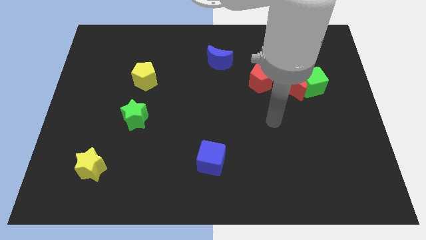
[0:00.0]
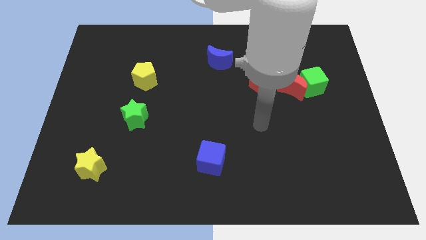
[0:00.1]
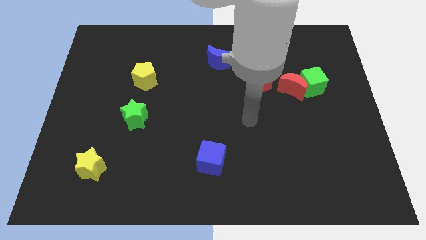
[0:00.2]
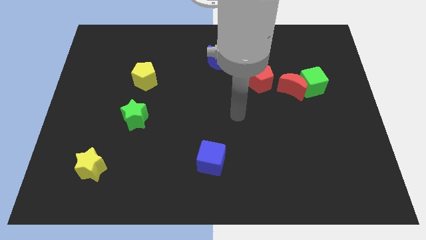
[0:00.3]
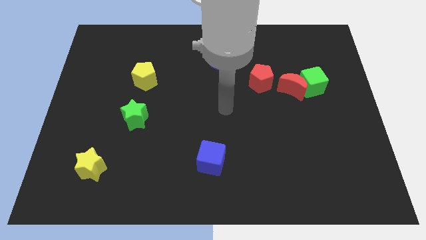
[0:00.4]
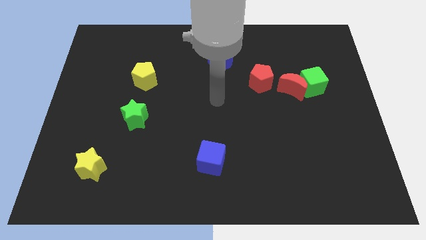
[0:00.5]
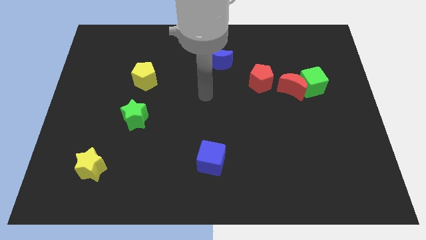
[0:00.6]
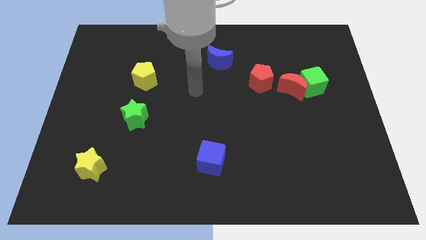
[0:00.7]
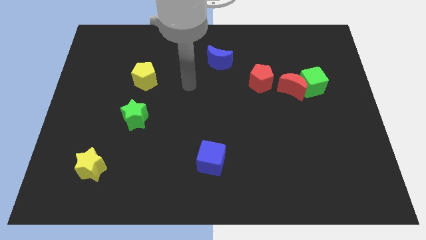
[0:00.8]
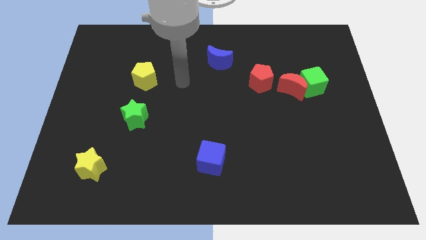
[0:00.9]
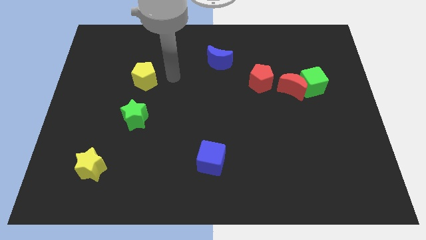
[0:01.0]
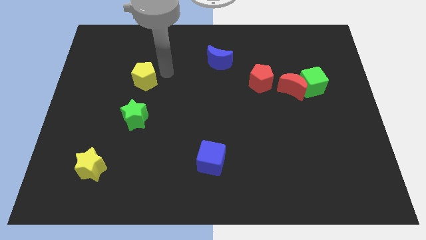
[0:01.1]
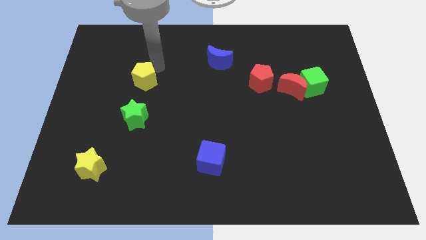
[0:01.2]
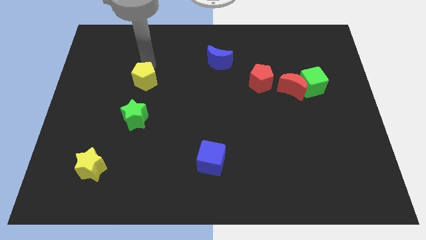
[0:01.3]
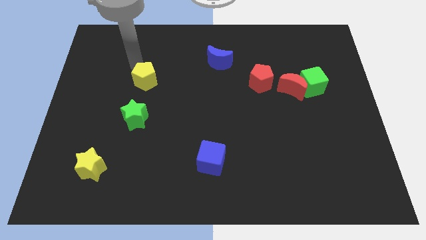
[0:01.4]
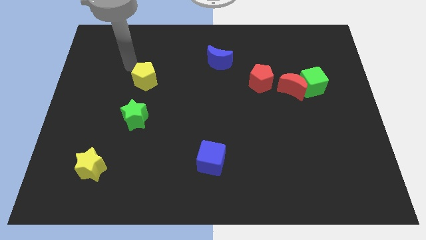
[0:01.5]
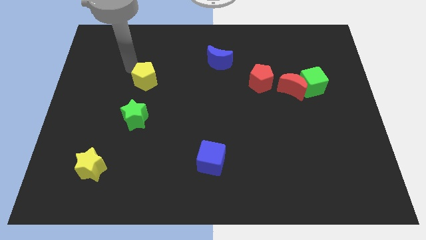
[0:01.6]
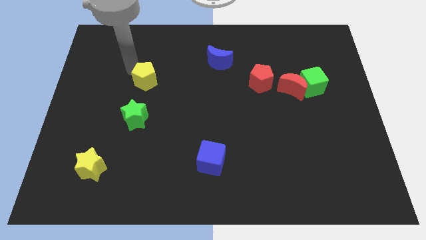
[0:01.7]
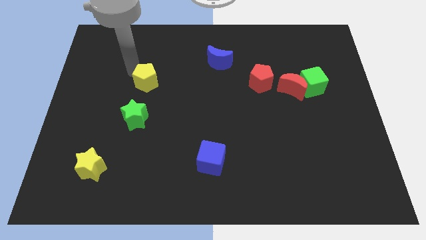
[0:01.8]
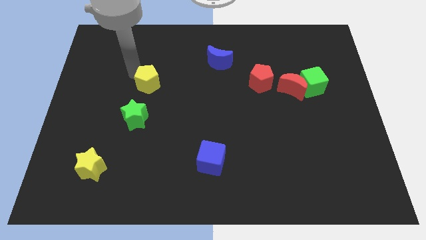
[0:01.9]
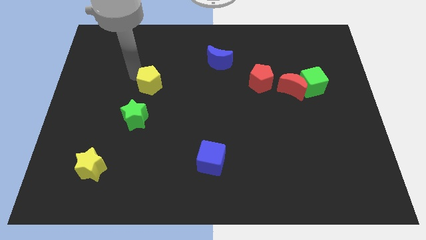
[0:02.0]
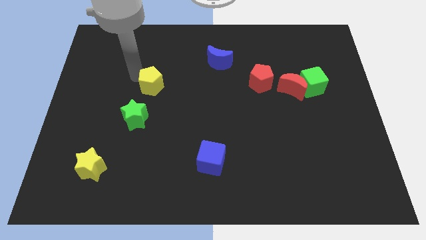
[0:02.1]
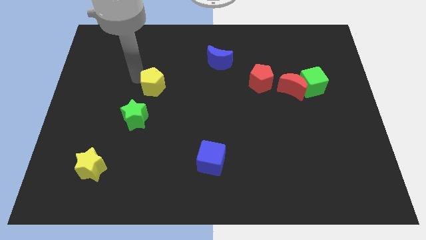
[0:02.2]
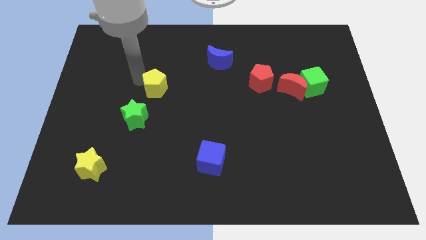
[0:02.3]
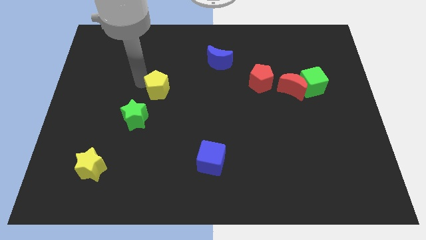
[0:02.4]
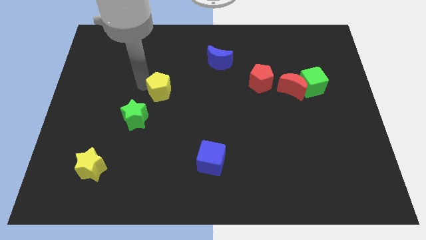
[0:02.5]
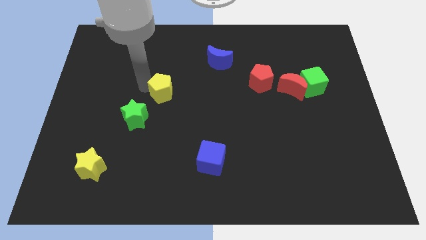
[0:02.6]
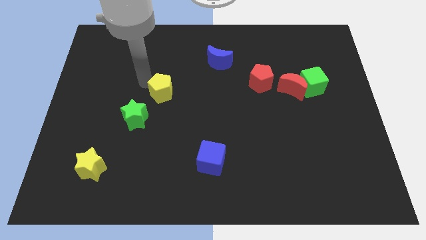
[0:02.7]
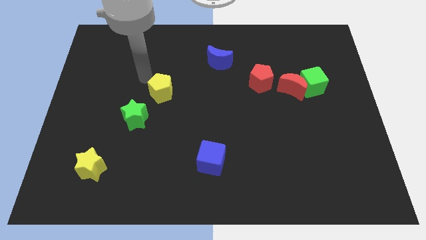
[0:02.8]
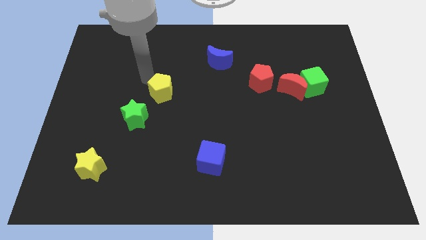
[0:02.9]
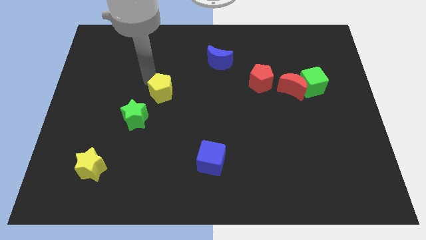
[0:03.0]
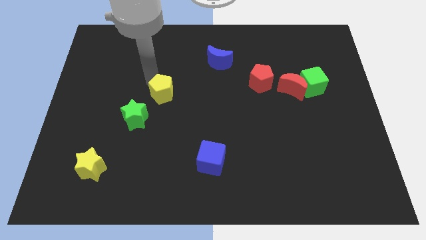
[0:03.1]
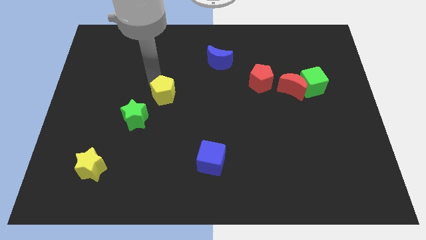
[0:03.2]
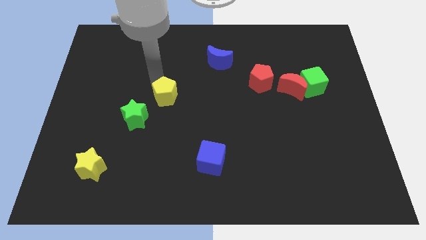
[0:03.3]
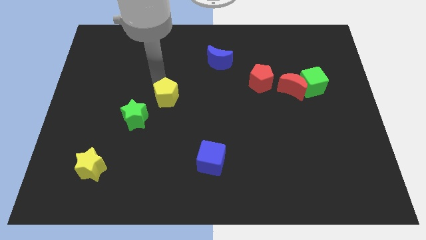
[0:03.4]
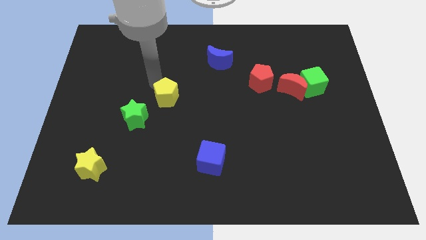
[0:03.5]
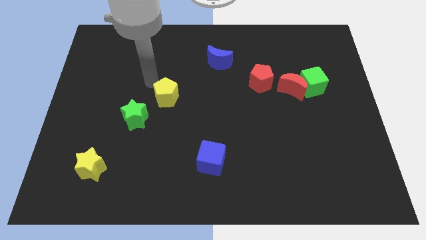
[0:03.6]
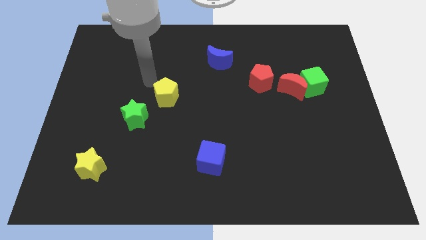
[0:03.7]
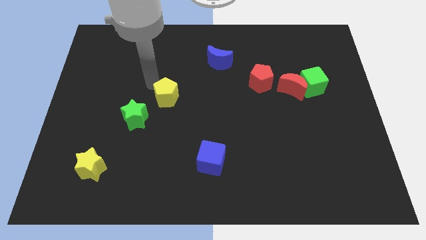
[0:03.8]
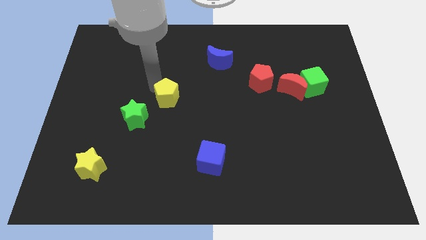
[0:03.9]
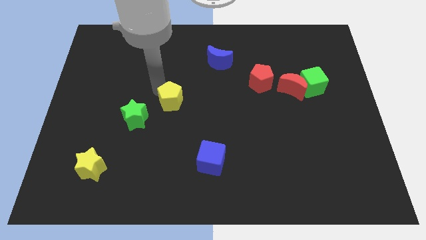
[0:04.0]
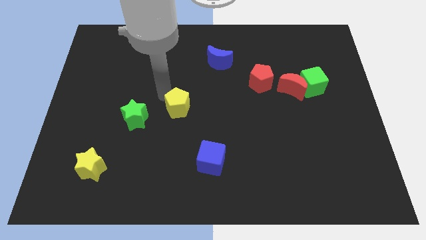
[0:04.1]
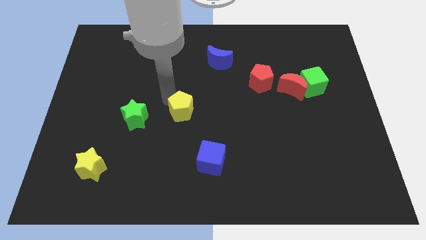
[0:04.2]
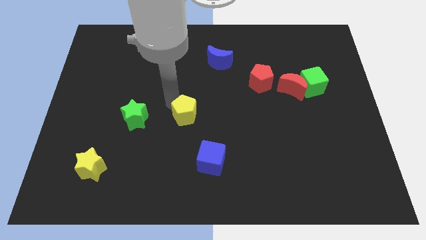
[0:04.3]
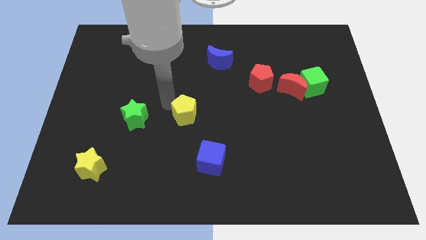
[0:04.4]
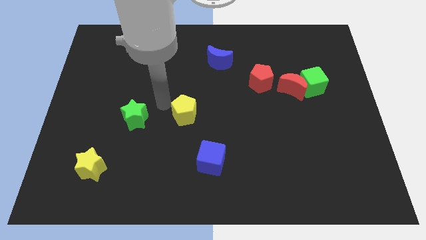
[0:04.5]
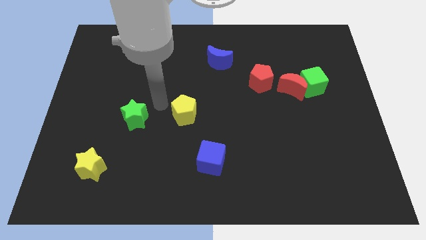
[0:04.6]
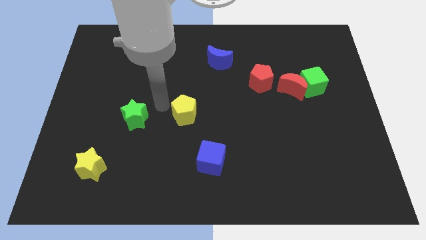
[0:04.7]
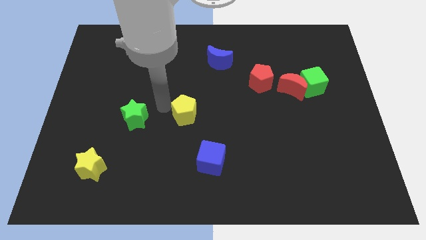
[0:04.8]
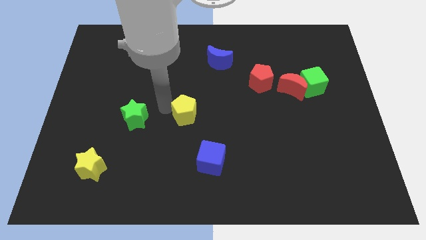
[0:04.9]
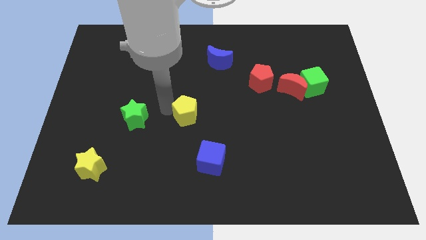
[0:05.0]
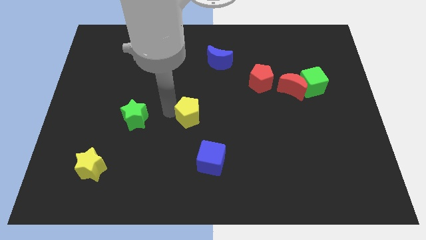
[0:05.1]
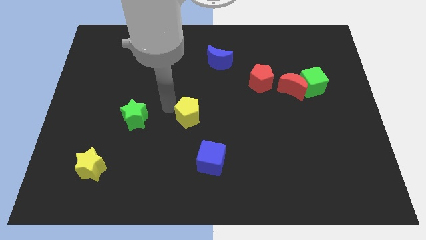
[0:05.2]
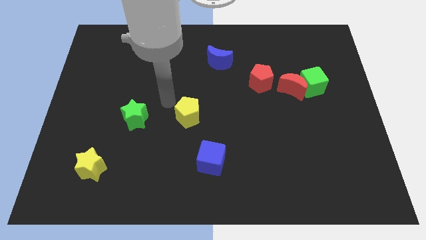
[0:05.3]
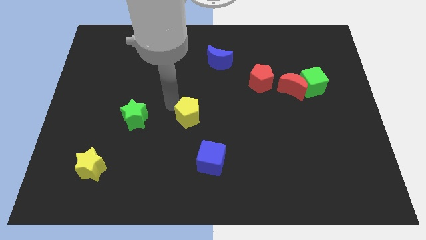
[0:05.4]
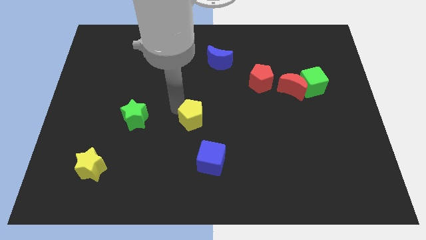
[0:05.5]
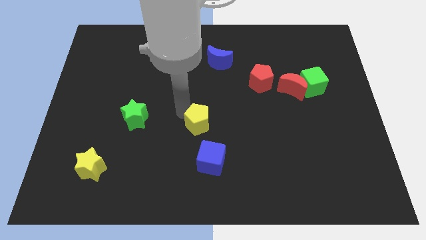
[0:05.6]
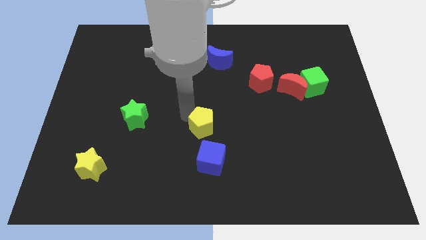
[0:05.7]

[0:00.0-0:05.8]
slide the yellow pentagon down and right diagonally

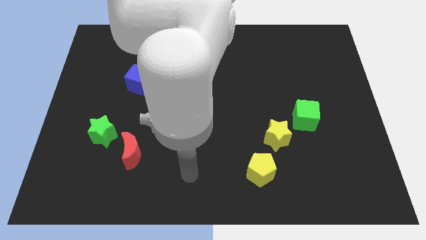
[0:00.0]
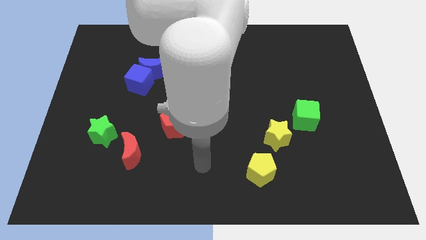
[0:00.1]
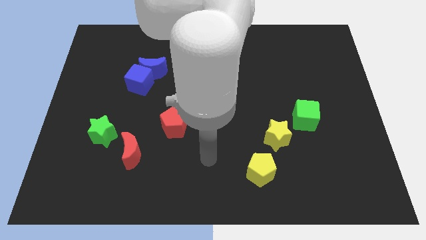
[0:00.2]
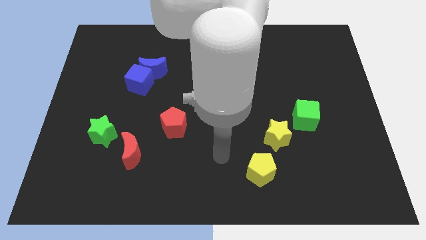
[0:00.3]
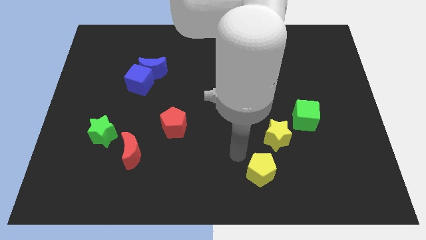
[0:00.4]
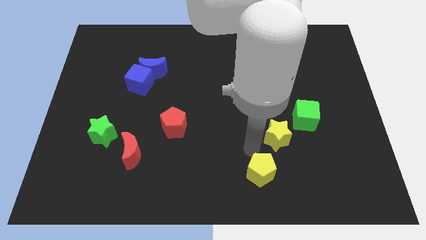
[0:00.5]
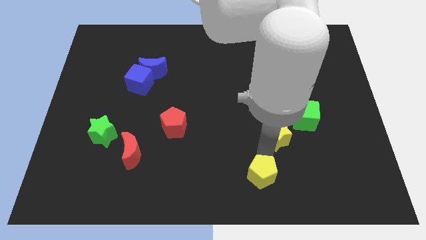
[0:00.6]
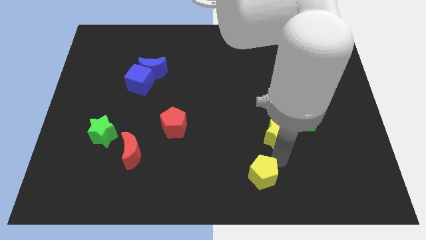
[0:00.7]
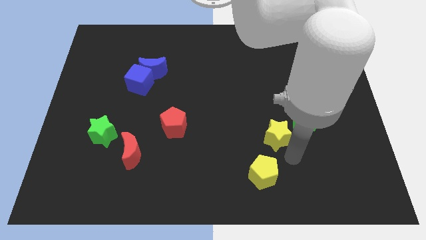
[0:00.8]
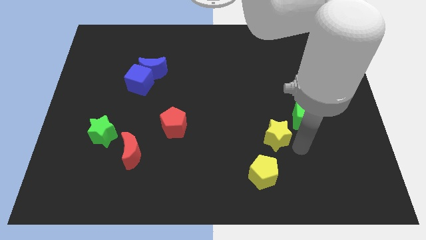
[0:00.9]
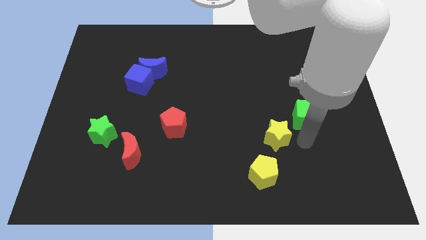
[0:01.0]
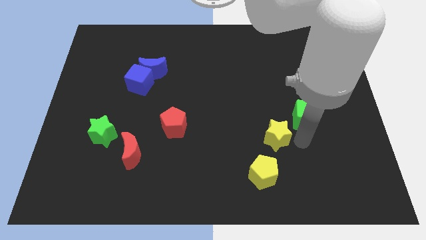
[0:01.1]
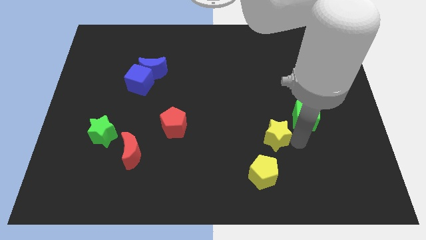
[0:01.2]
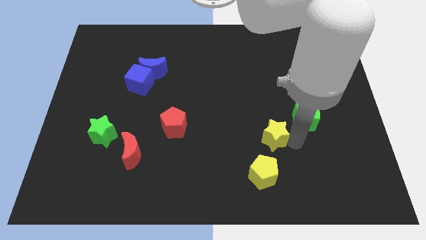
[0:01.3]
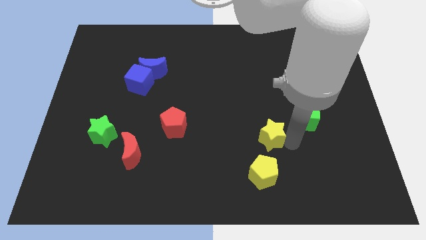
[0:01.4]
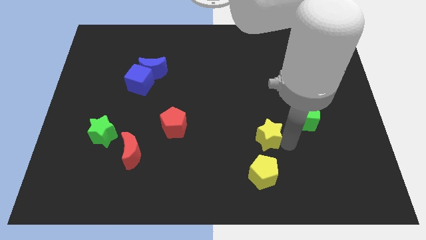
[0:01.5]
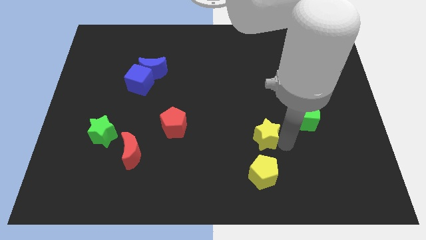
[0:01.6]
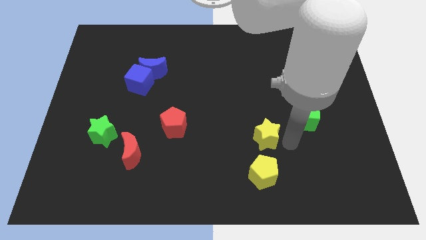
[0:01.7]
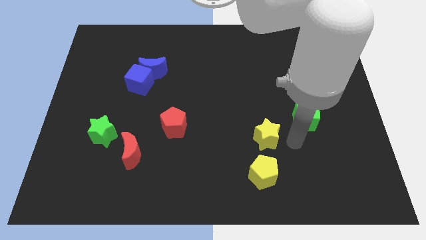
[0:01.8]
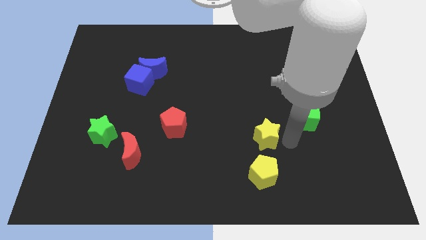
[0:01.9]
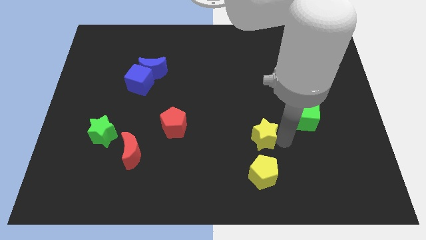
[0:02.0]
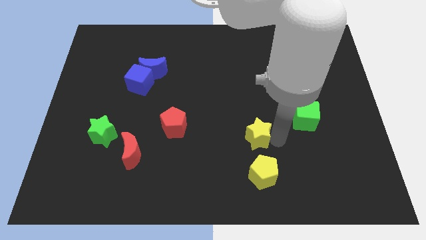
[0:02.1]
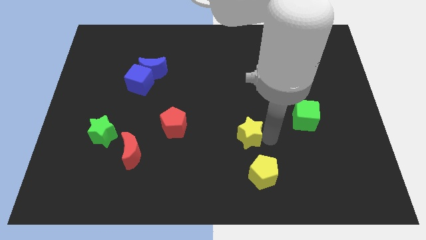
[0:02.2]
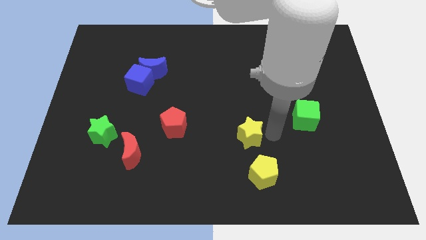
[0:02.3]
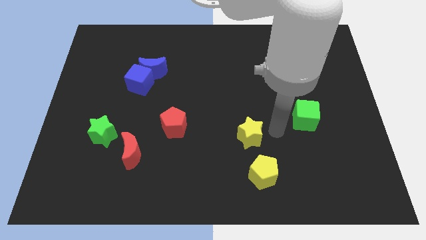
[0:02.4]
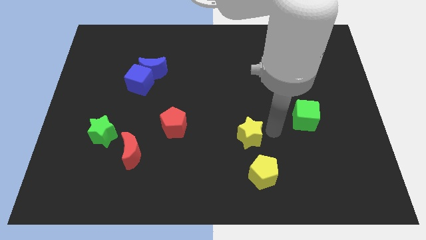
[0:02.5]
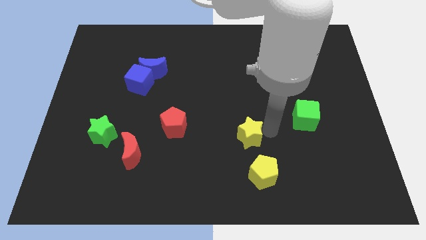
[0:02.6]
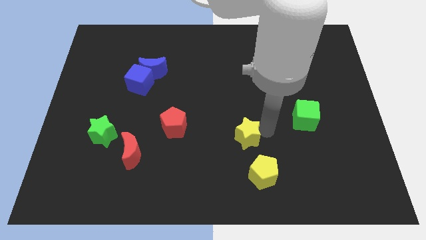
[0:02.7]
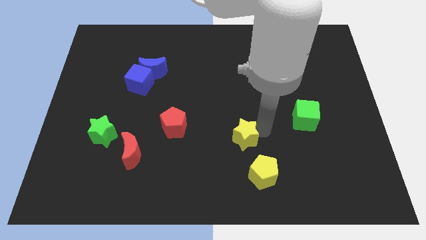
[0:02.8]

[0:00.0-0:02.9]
slide the yellow star a little to the left

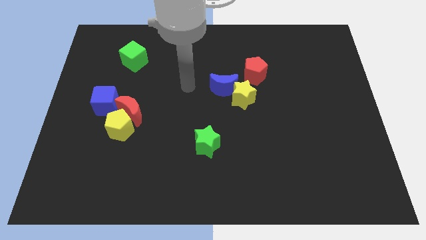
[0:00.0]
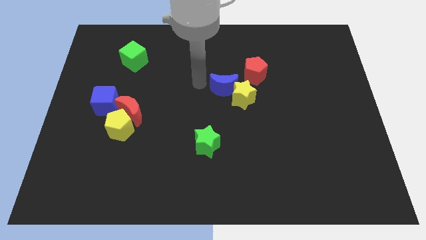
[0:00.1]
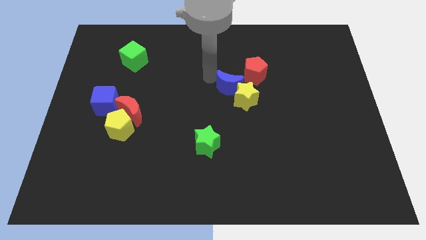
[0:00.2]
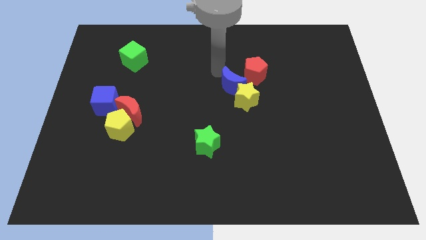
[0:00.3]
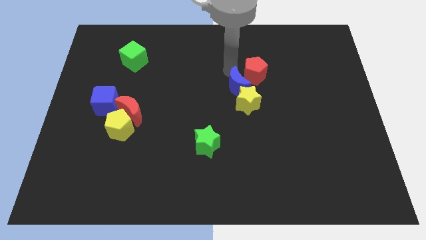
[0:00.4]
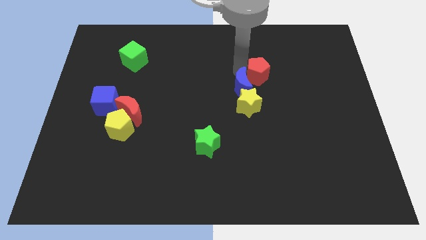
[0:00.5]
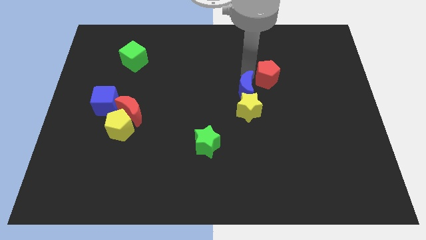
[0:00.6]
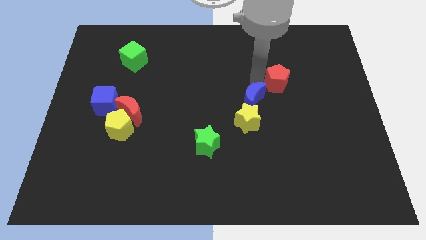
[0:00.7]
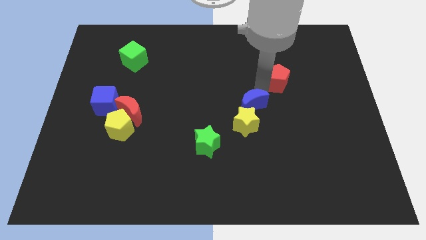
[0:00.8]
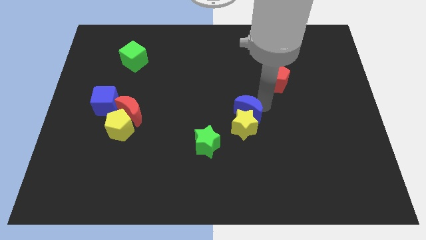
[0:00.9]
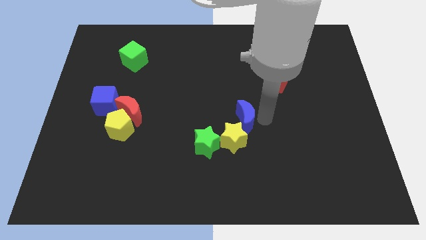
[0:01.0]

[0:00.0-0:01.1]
slightly push the yellow star diagonally downwards and left
